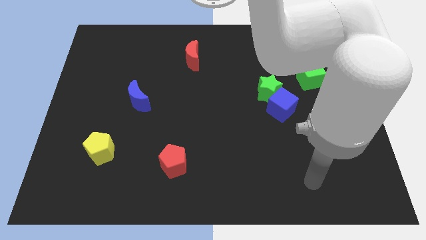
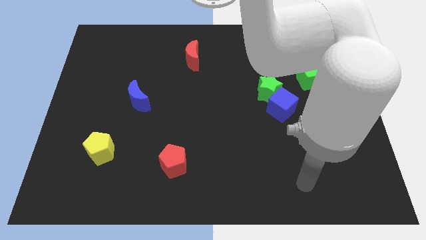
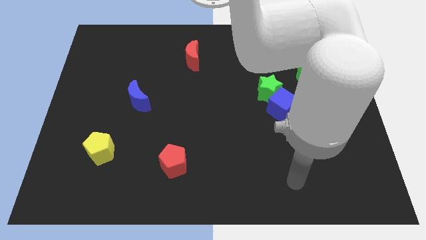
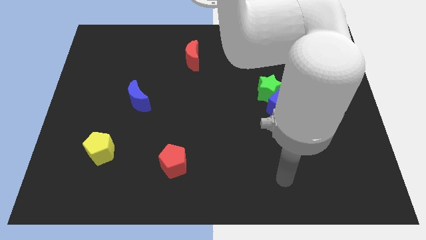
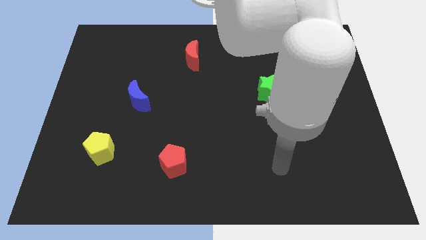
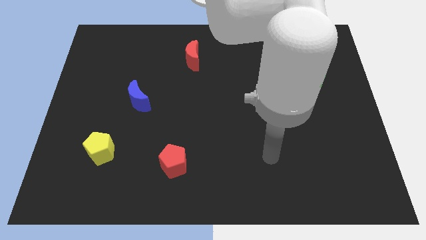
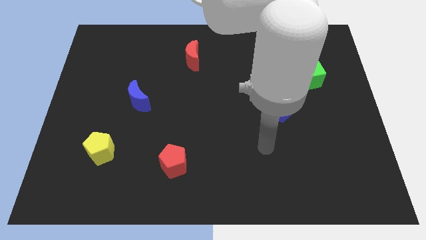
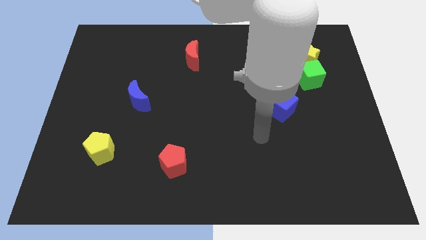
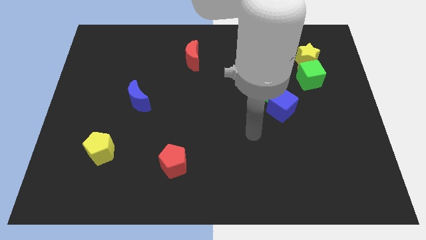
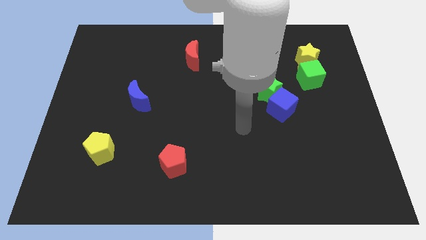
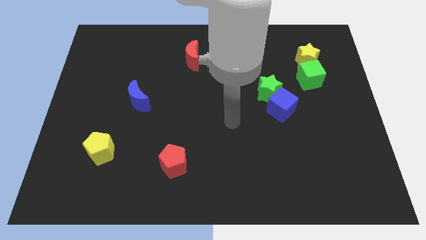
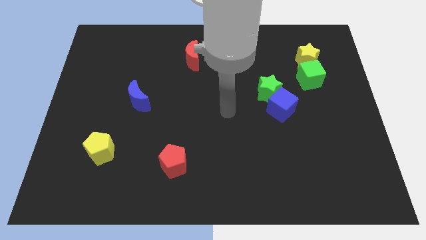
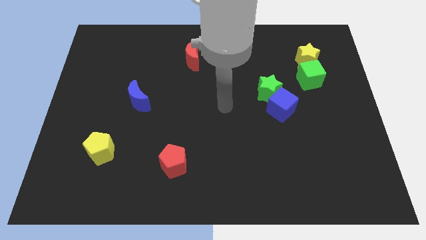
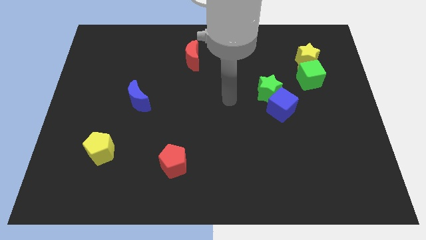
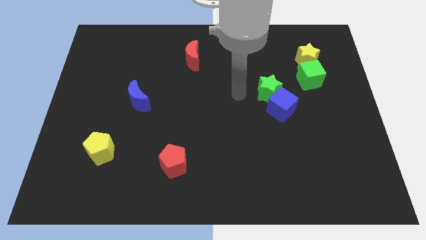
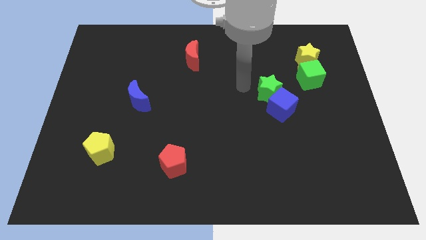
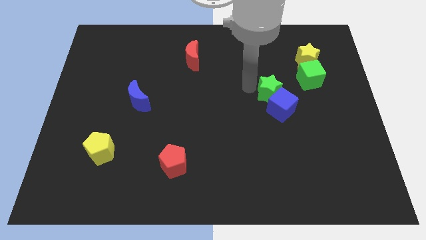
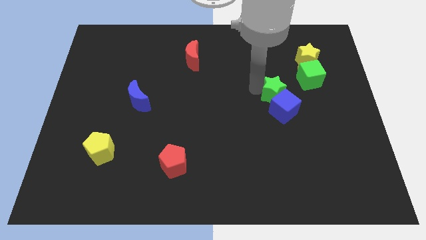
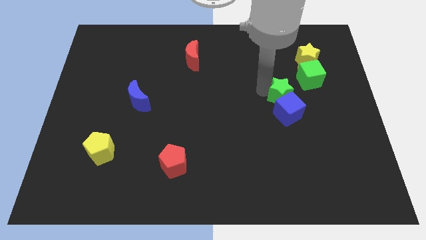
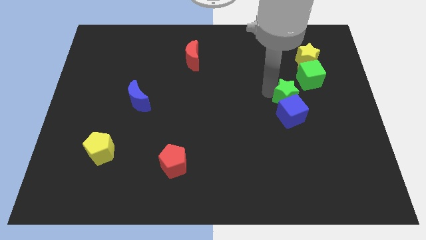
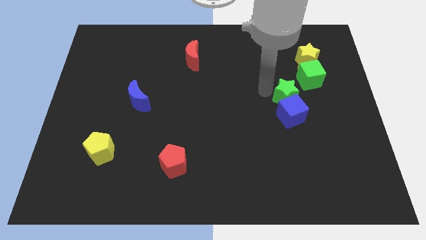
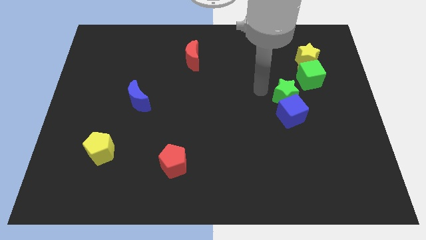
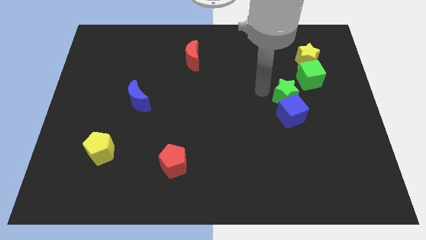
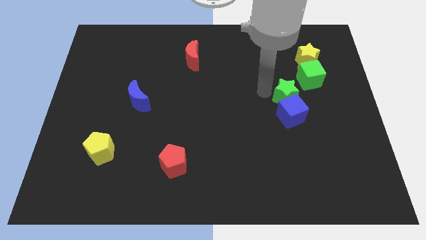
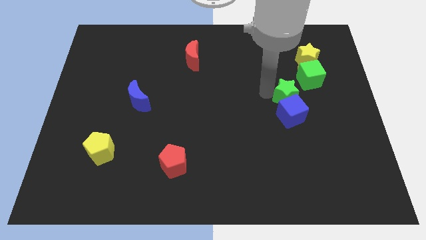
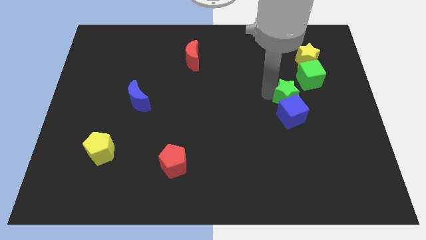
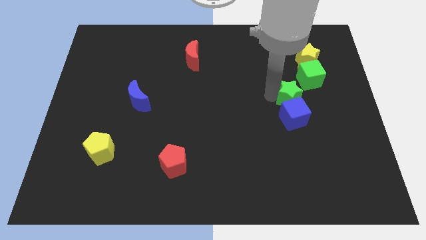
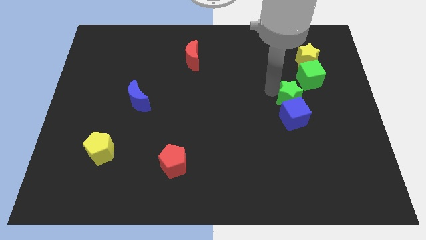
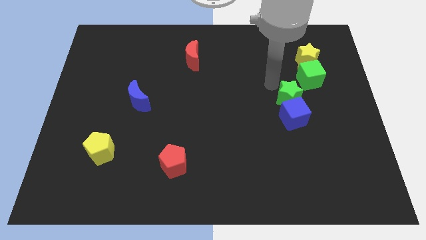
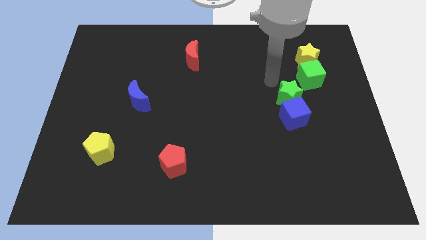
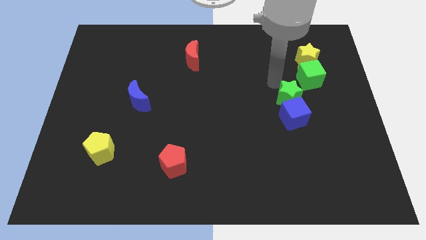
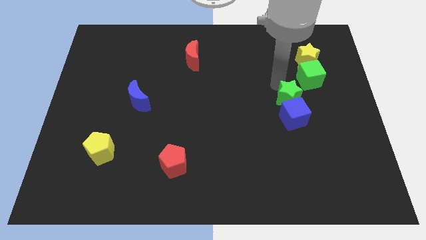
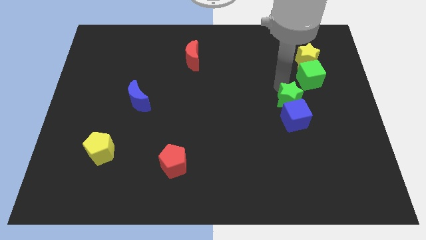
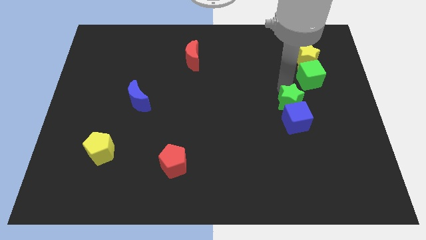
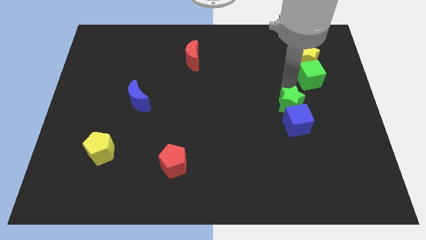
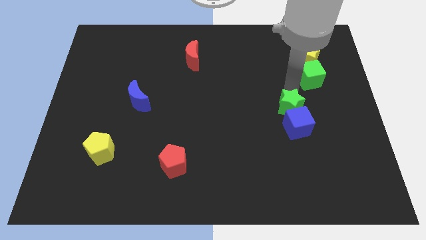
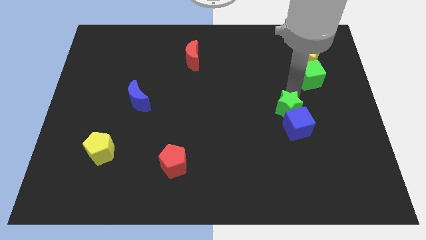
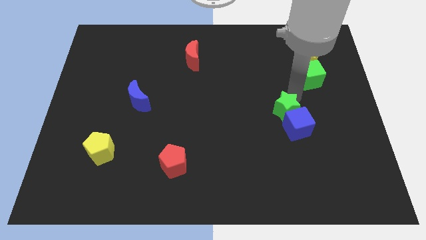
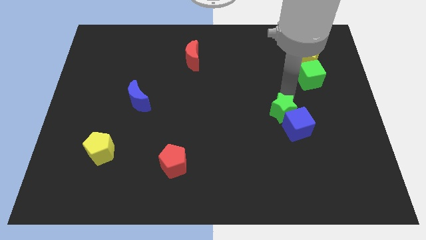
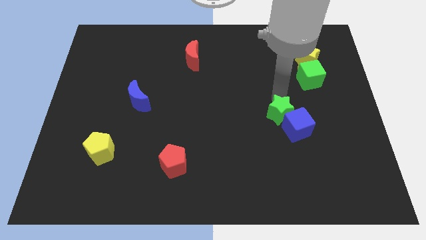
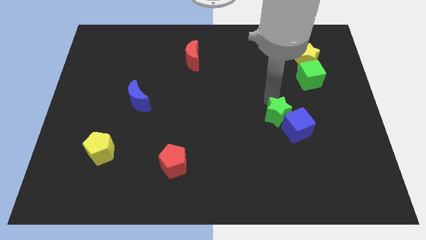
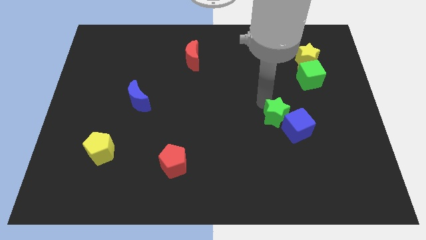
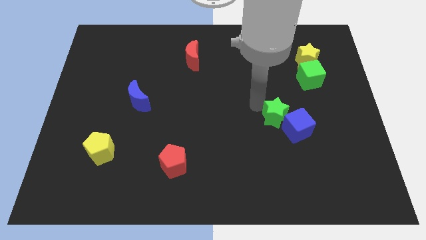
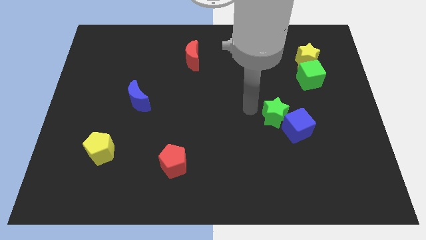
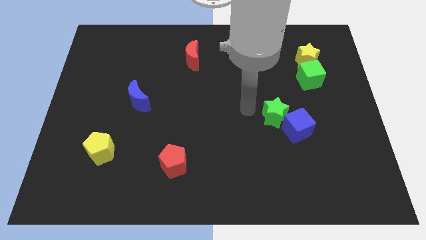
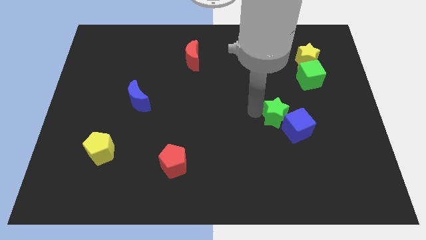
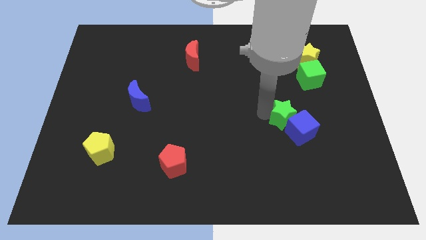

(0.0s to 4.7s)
slightly push the green star down and to the right diagonally

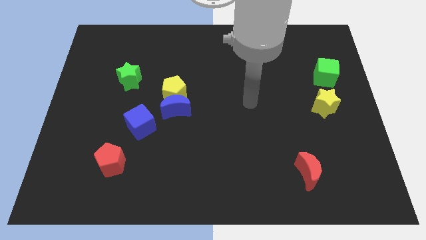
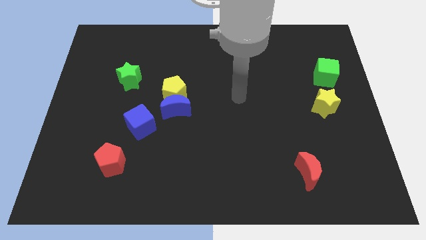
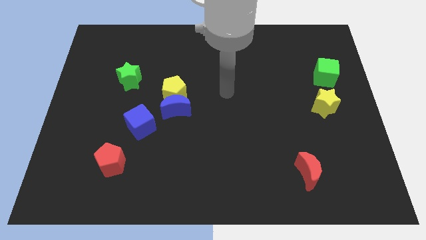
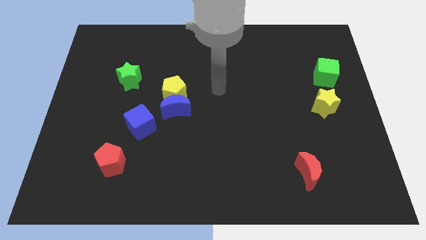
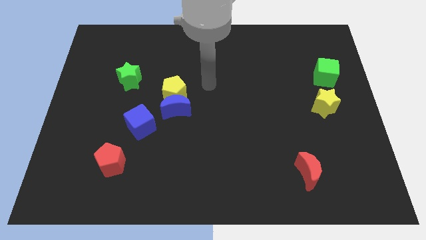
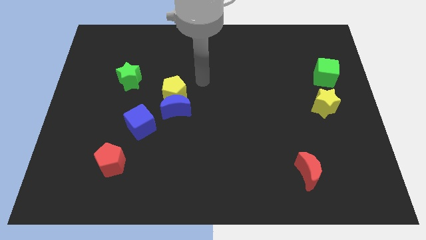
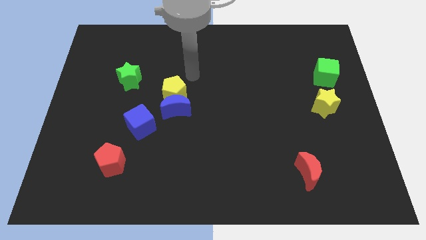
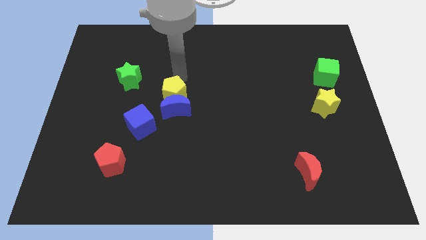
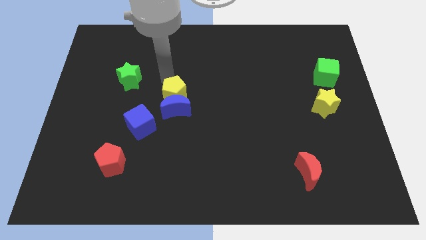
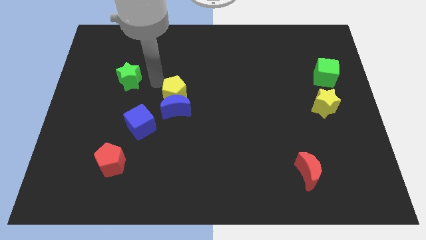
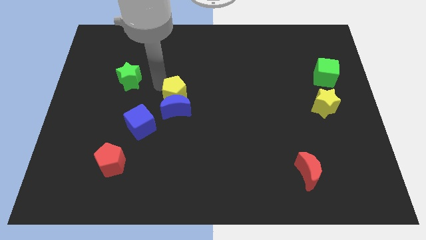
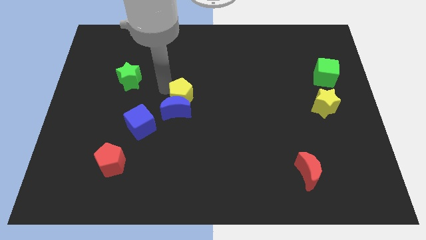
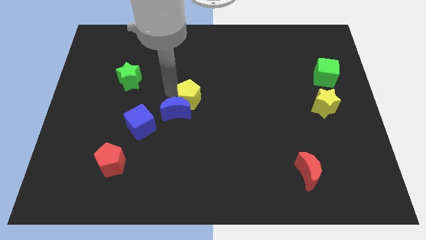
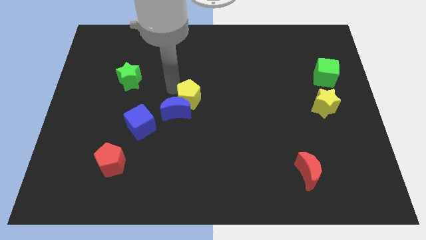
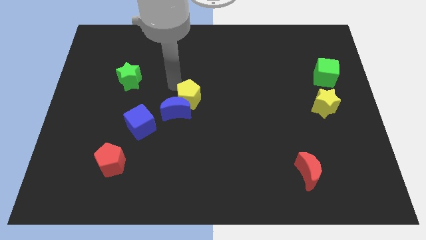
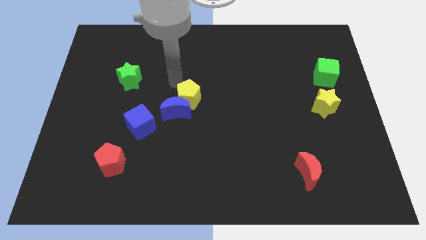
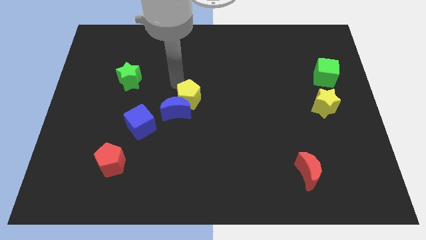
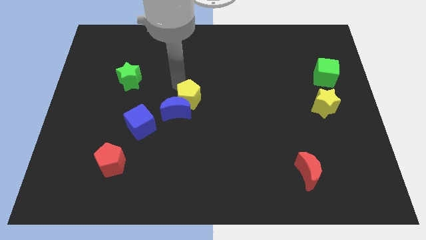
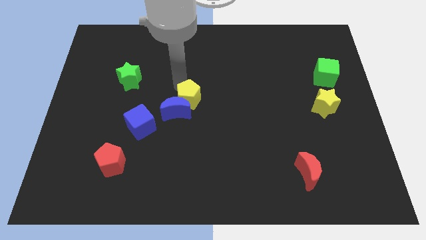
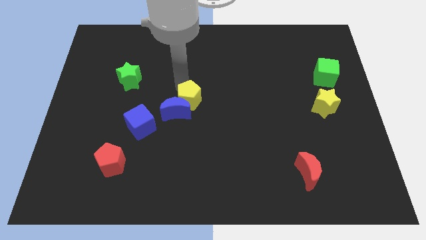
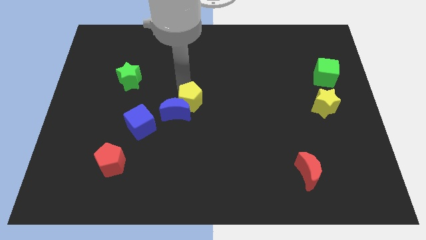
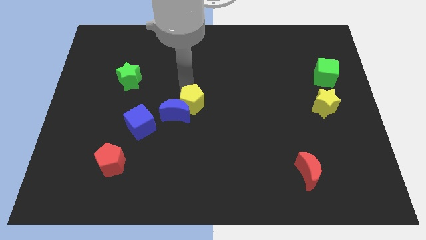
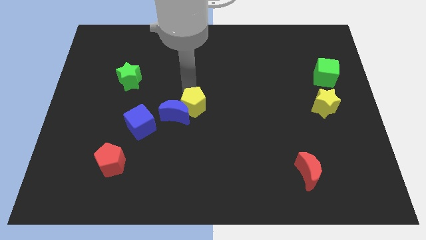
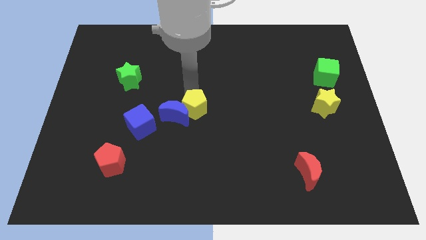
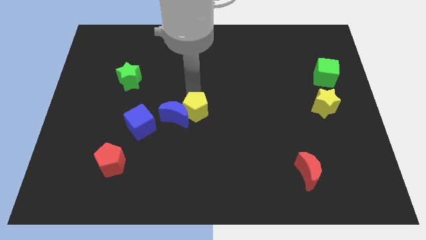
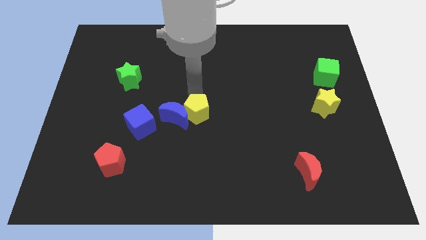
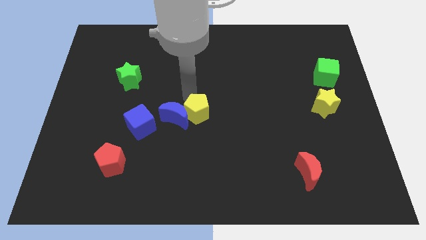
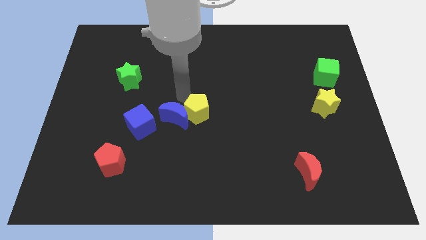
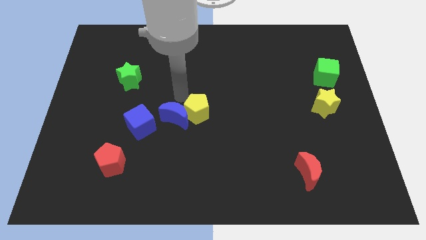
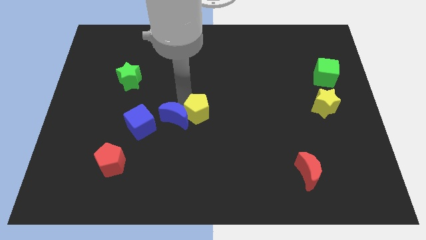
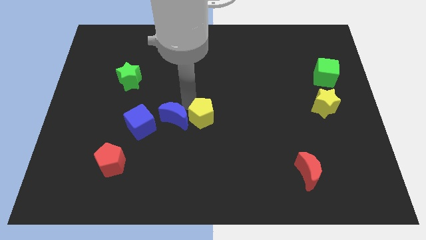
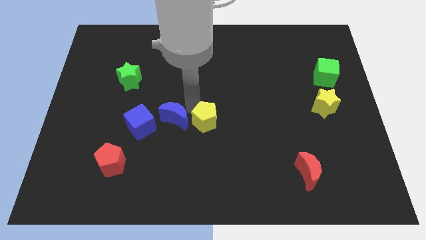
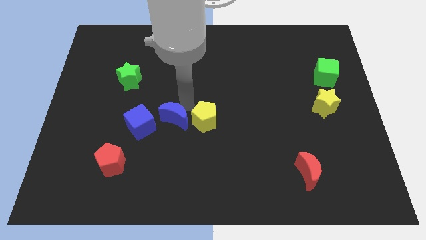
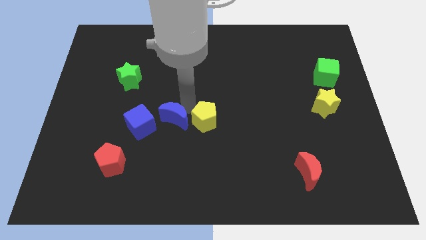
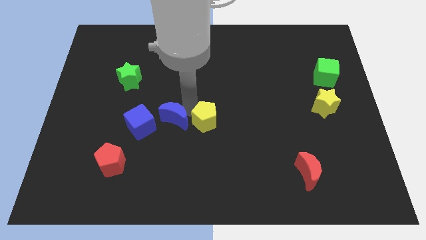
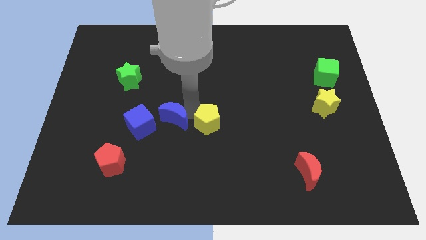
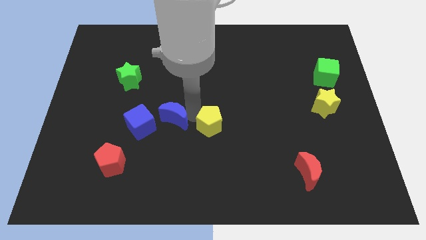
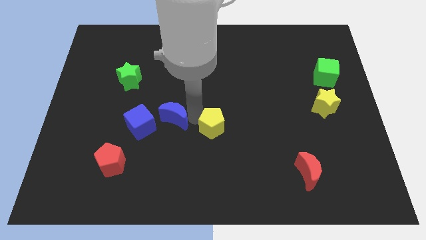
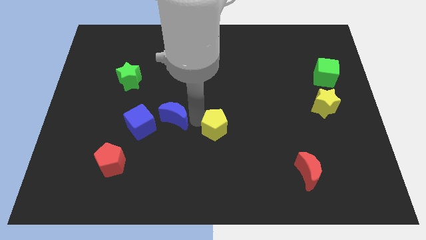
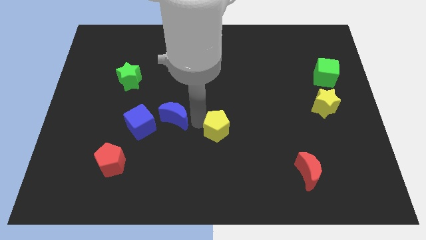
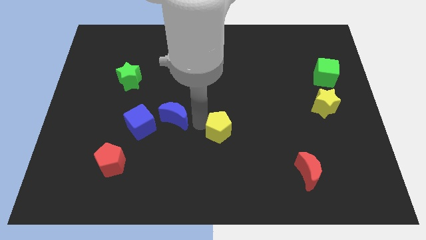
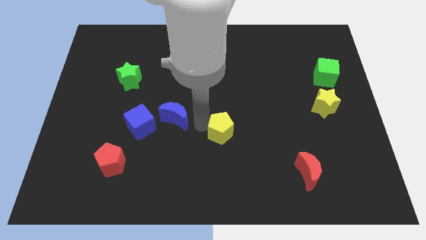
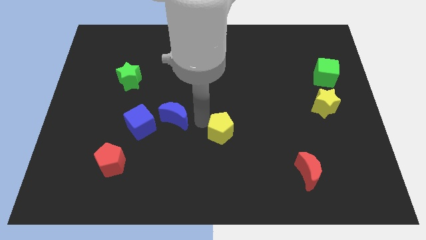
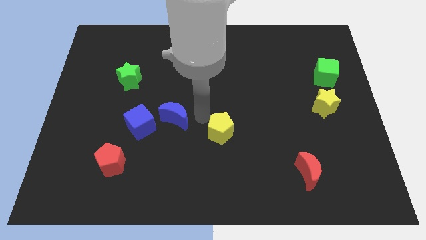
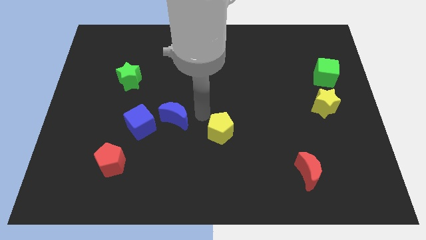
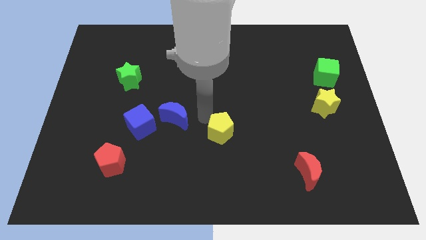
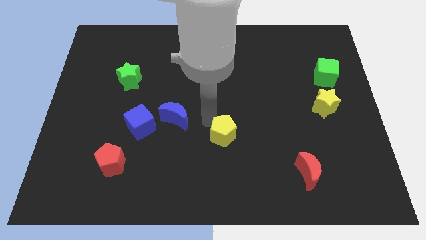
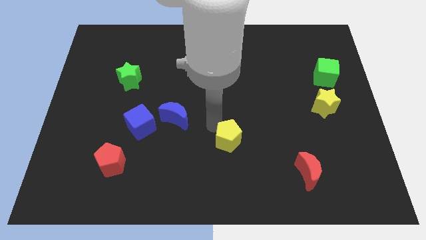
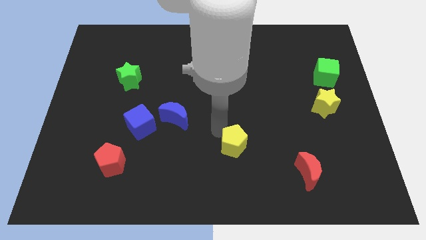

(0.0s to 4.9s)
push the yellow pentagon down and then to the right
